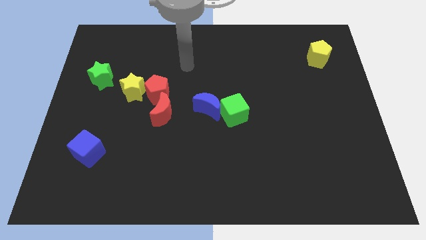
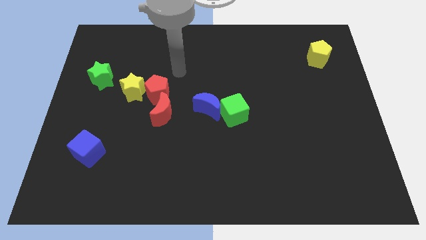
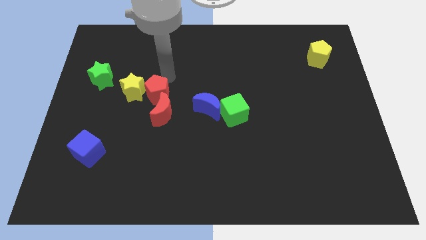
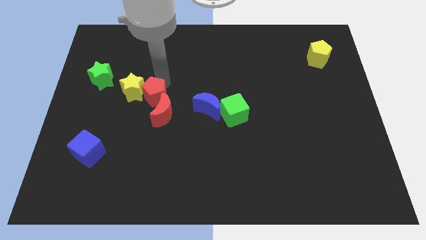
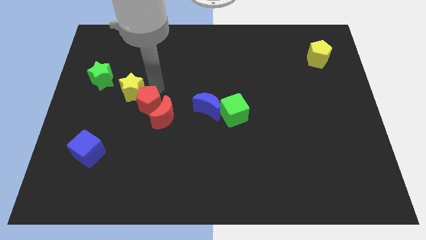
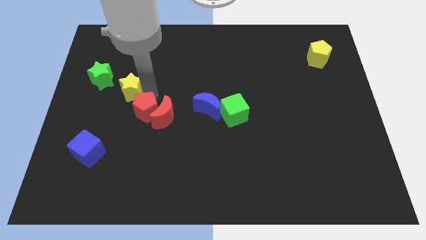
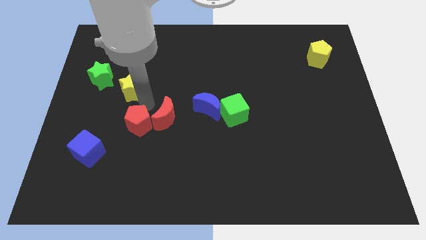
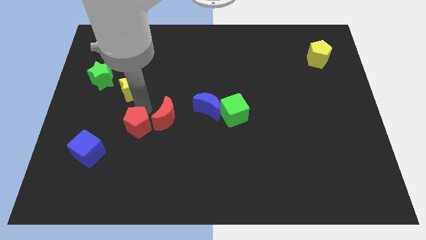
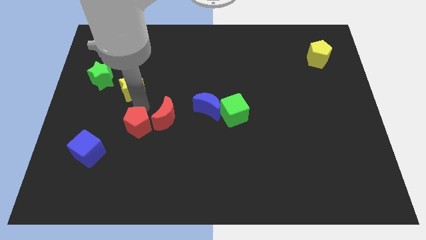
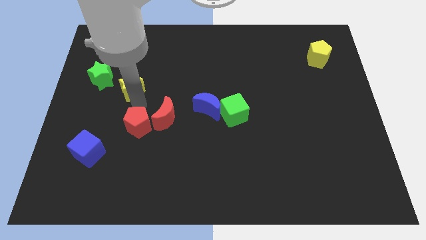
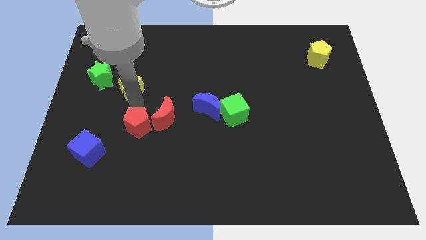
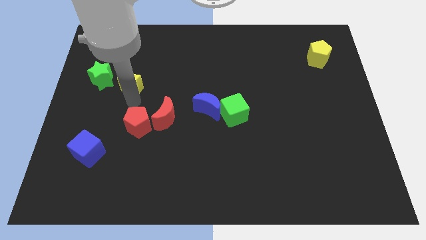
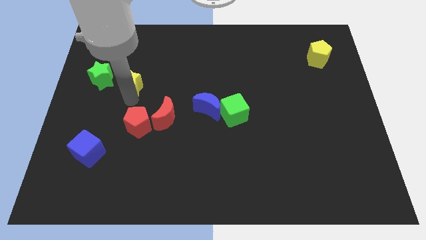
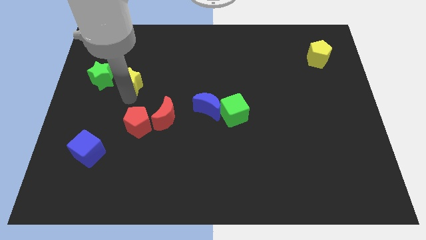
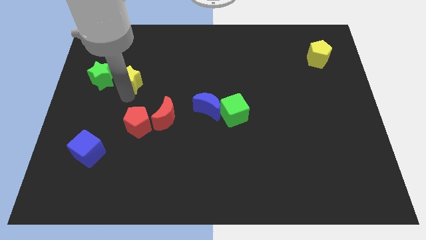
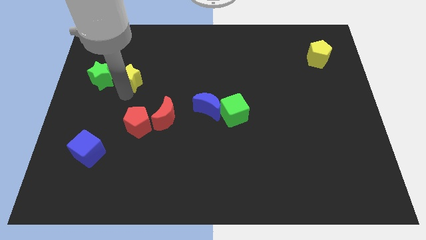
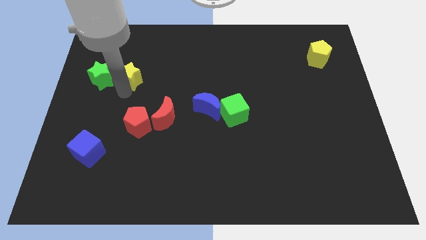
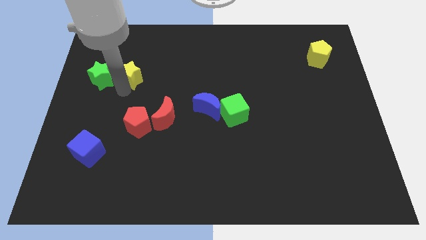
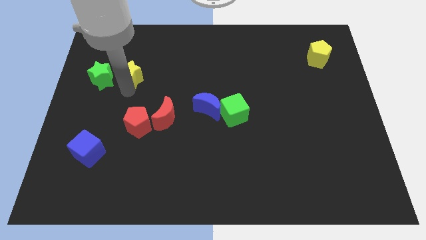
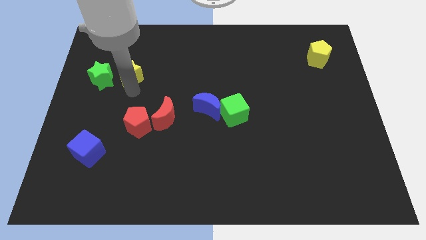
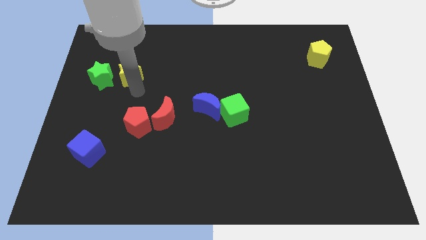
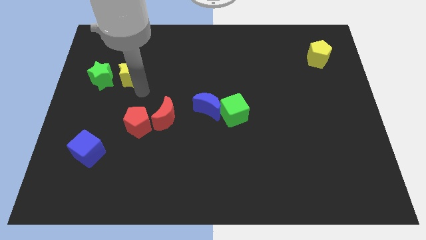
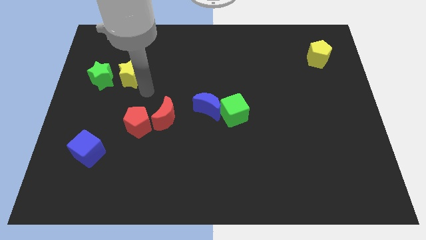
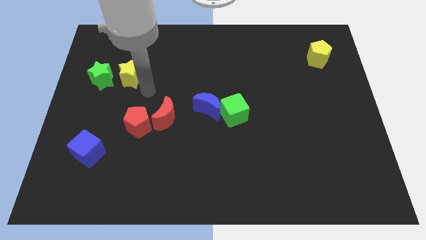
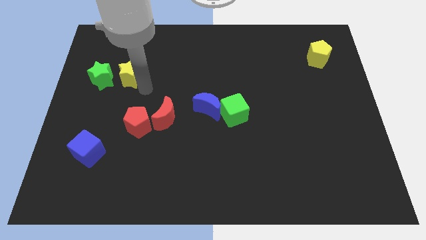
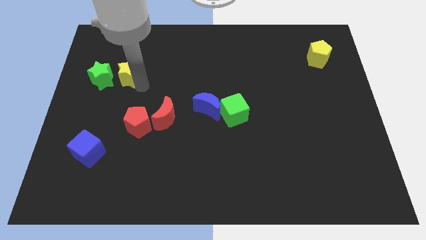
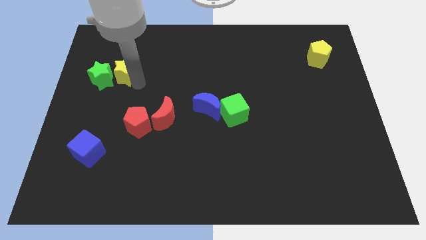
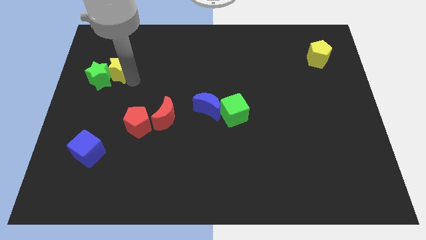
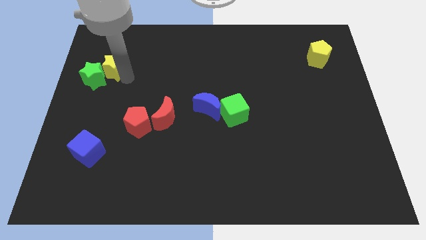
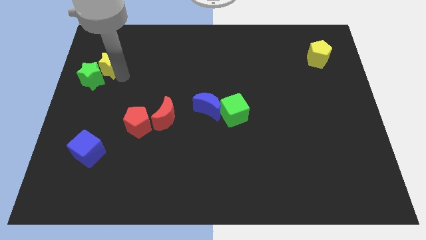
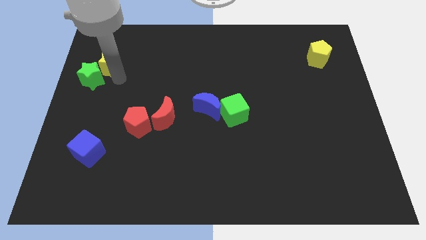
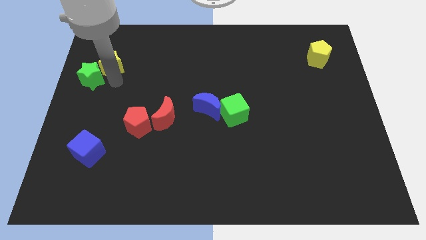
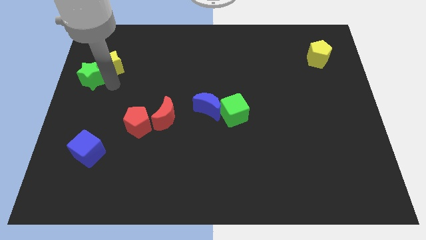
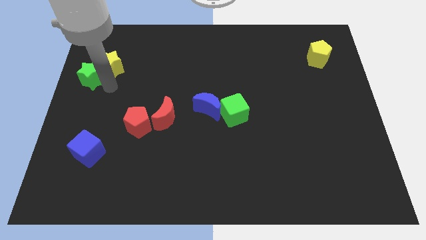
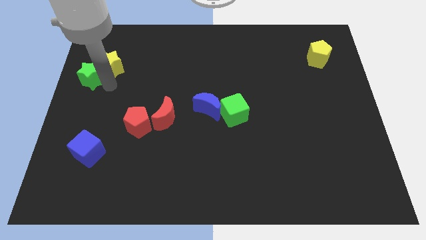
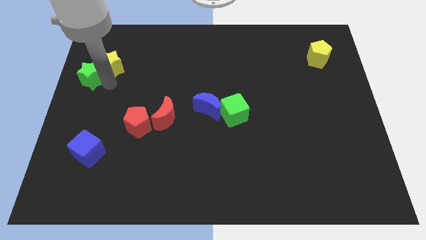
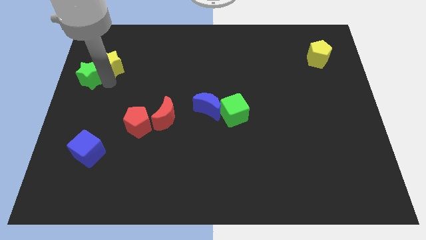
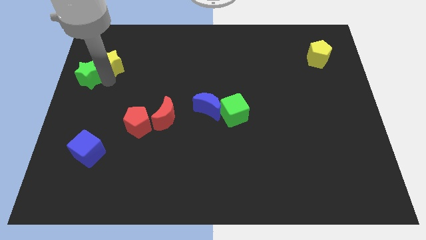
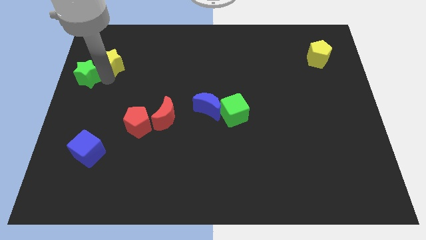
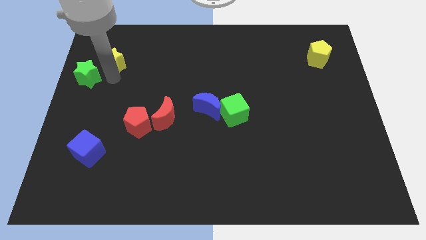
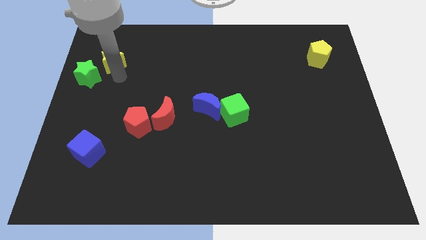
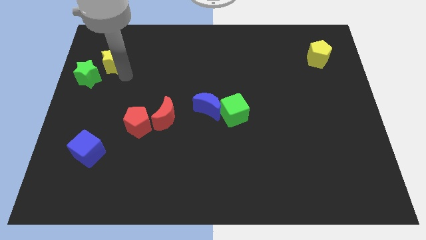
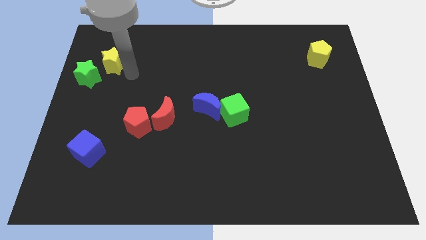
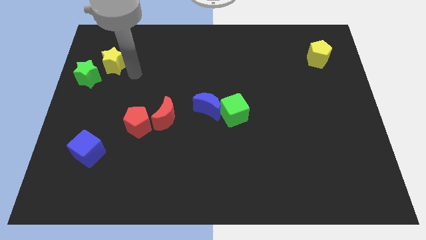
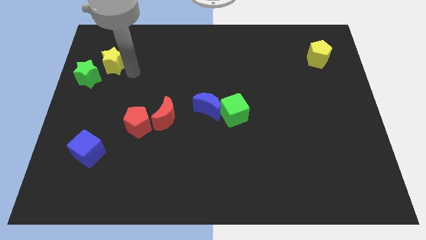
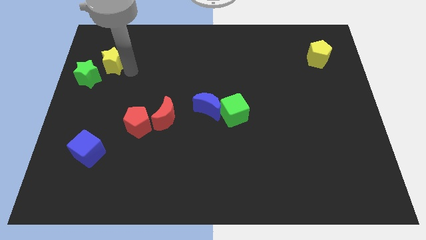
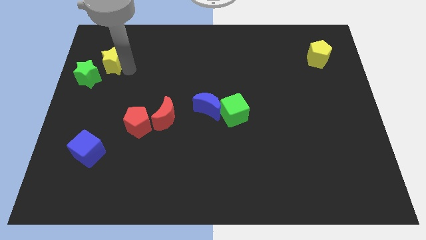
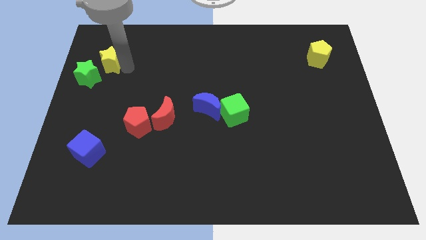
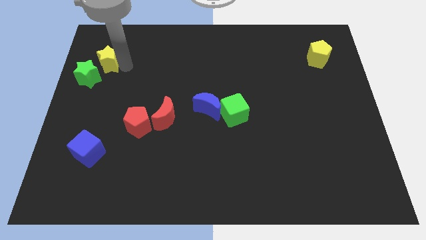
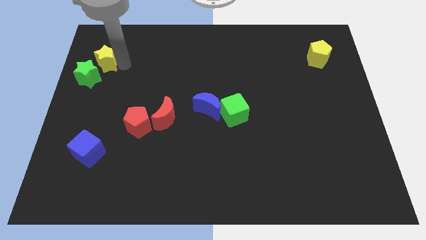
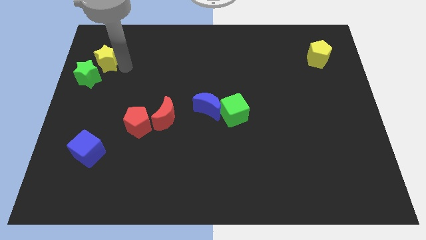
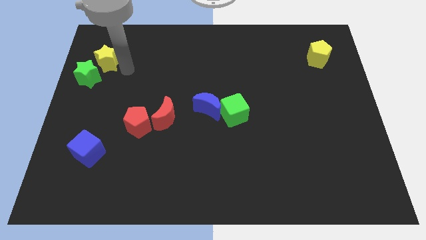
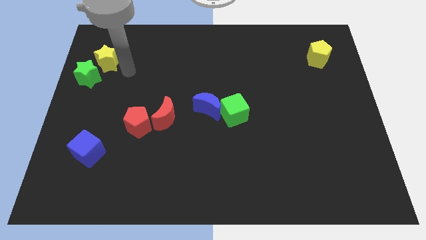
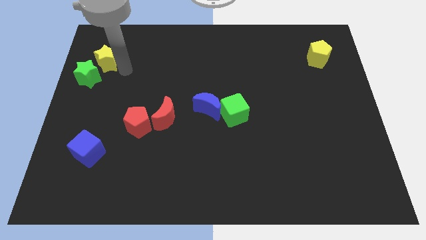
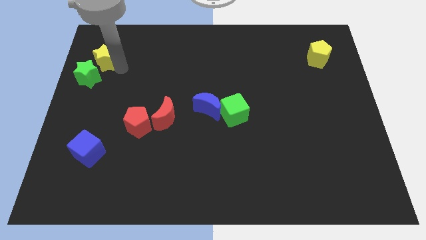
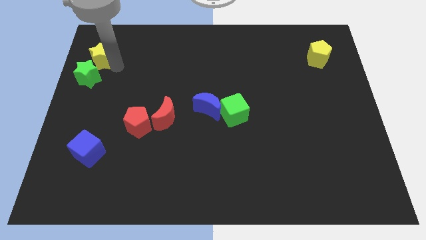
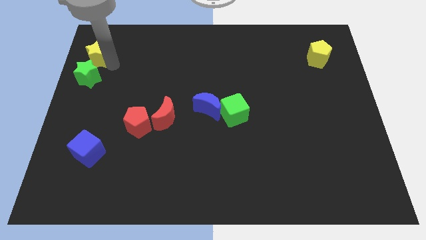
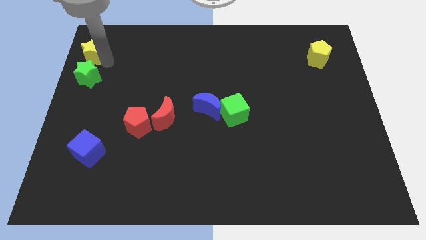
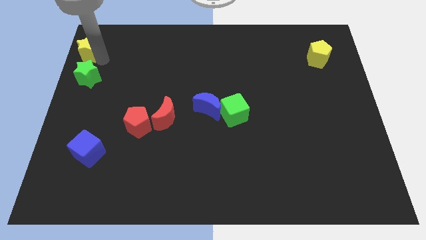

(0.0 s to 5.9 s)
slide the yellow star to the top left of the board
